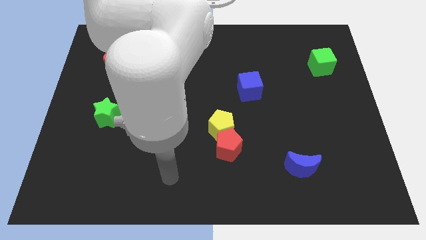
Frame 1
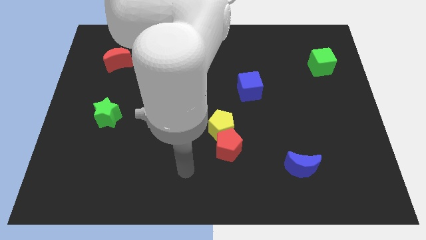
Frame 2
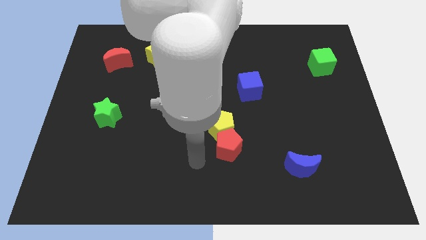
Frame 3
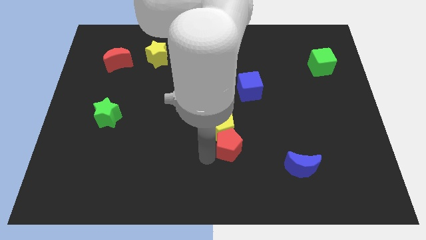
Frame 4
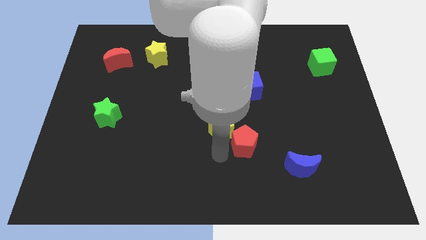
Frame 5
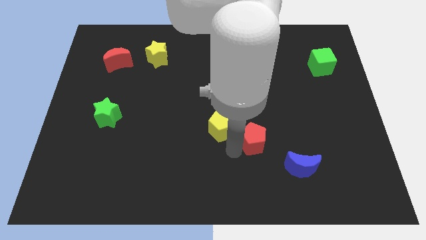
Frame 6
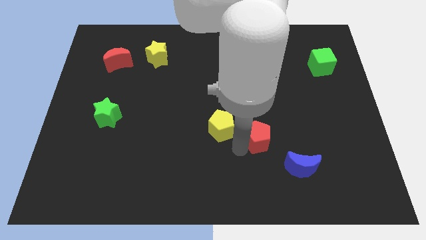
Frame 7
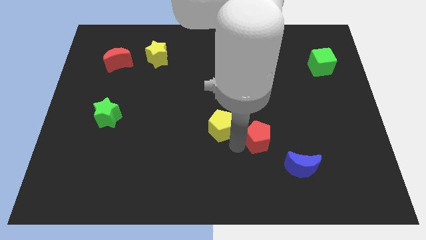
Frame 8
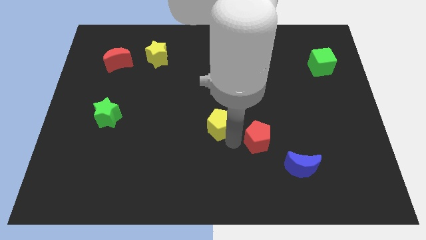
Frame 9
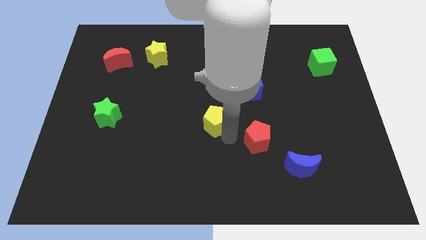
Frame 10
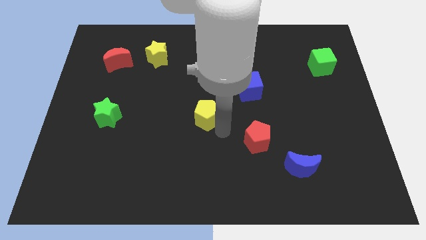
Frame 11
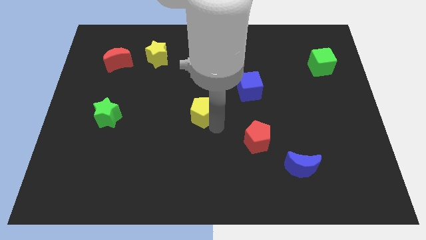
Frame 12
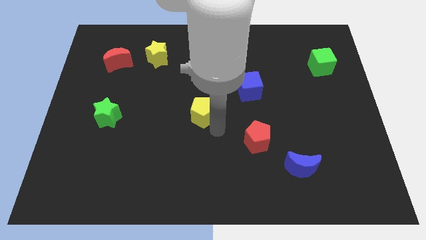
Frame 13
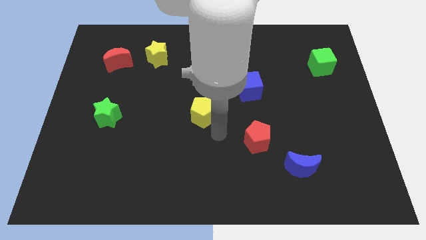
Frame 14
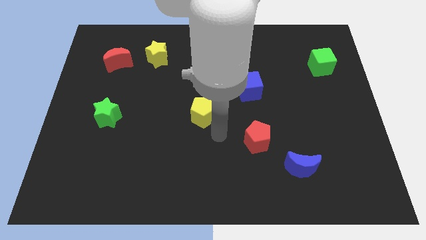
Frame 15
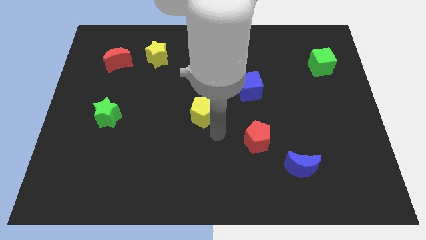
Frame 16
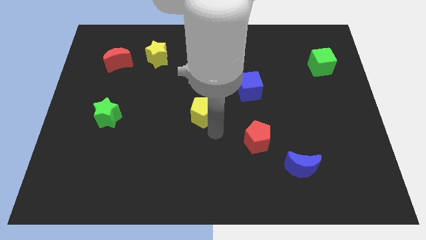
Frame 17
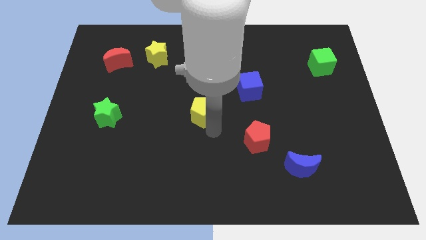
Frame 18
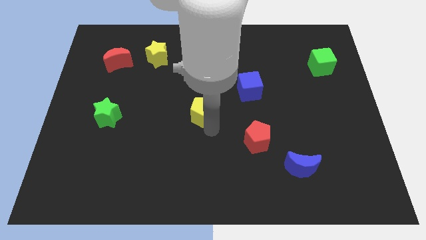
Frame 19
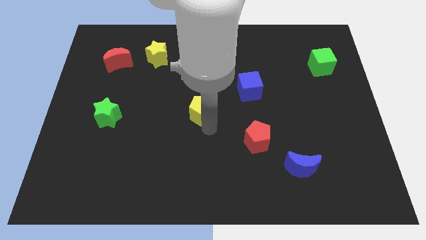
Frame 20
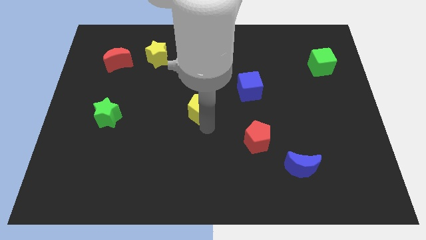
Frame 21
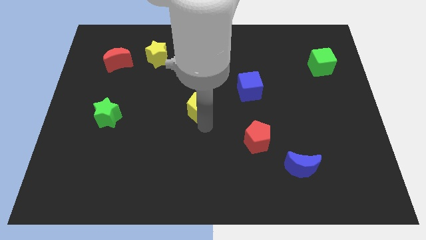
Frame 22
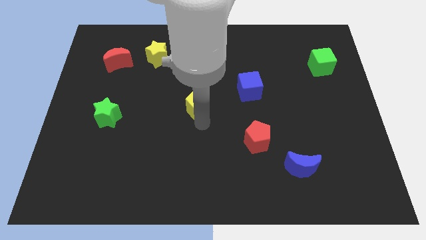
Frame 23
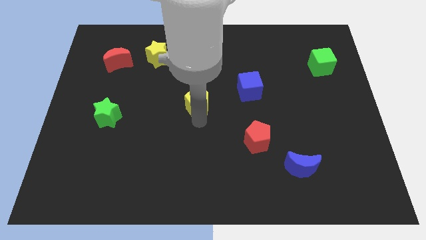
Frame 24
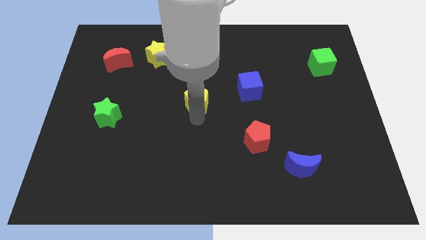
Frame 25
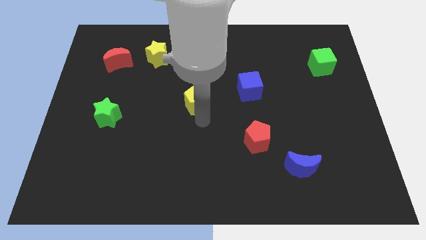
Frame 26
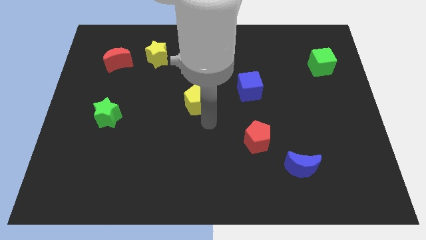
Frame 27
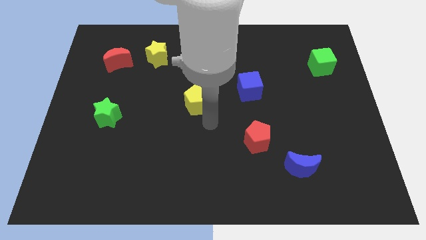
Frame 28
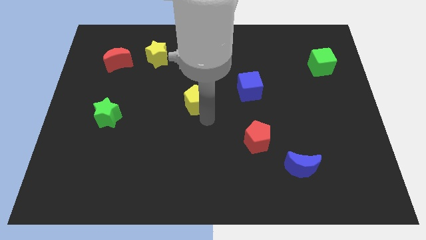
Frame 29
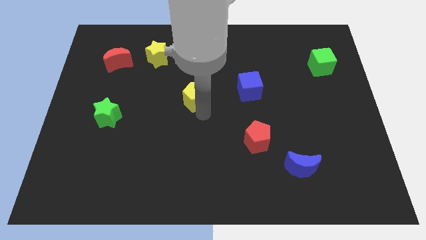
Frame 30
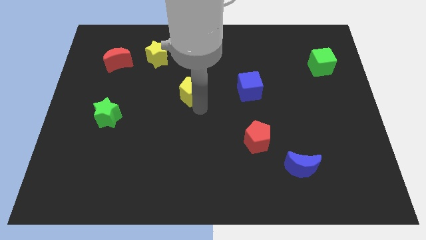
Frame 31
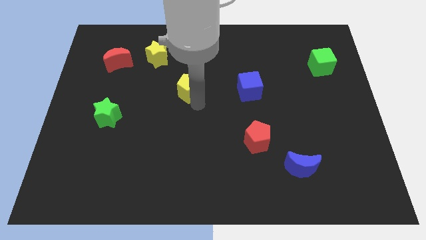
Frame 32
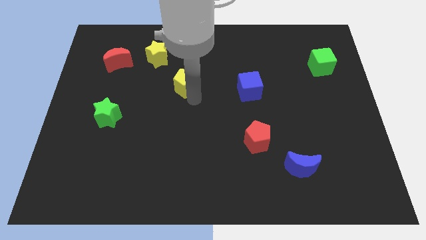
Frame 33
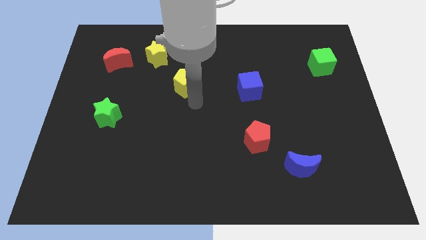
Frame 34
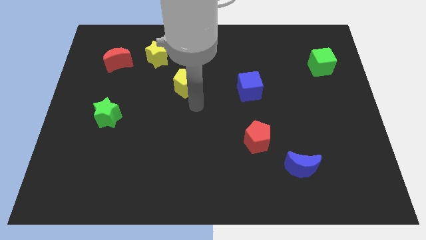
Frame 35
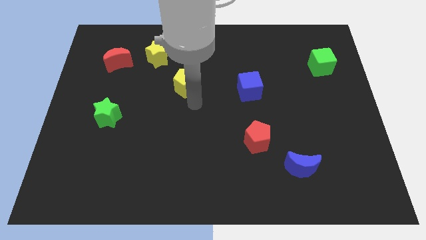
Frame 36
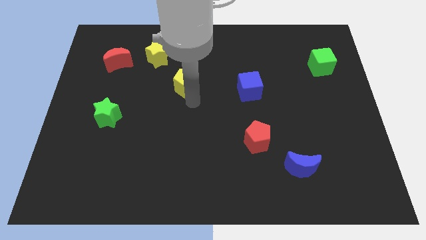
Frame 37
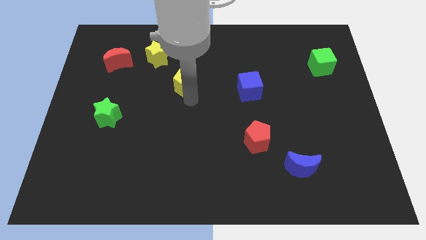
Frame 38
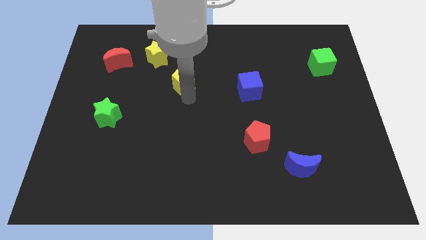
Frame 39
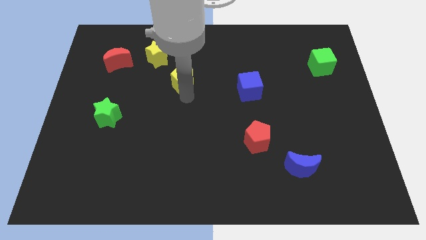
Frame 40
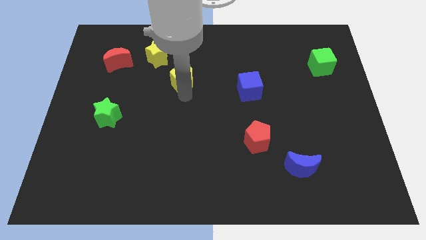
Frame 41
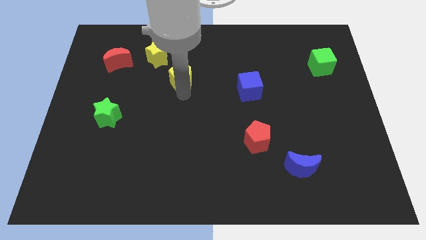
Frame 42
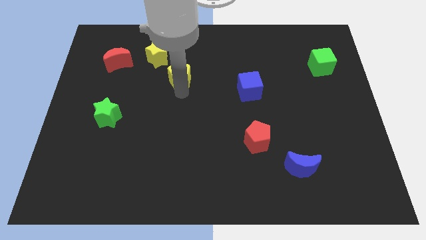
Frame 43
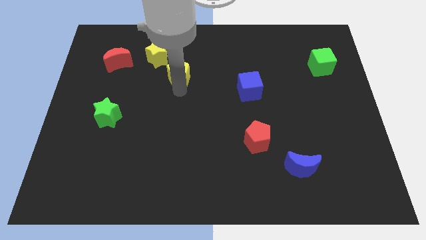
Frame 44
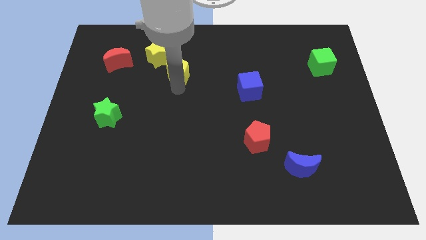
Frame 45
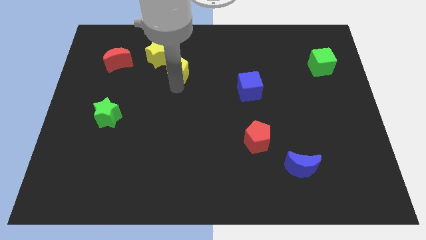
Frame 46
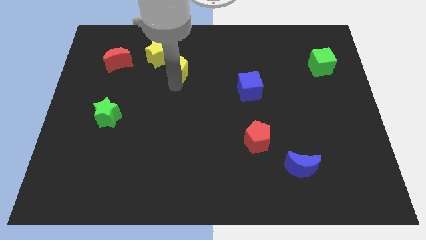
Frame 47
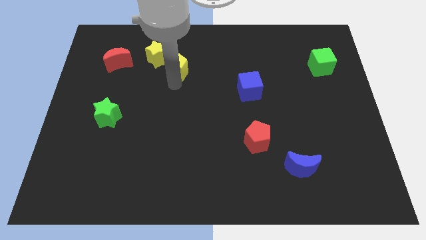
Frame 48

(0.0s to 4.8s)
put the yellow pentagon to the right of the red moon

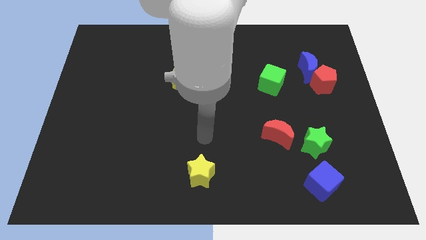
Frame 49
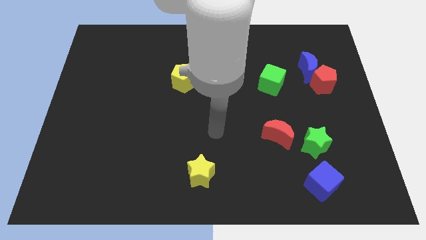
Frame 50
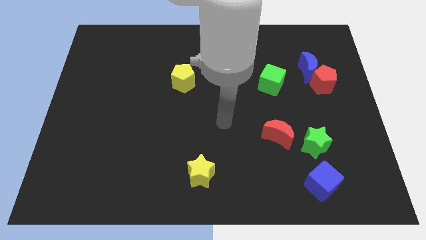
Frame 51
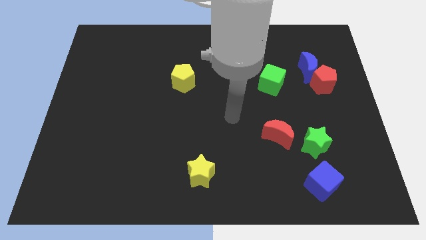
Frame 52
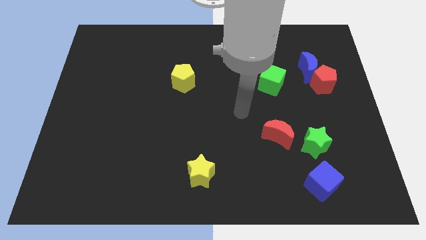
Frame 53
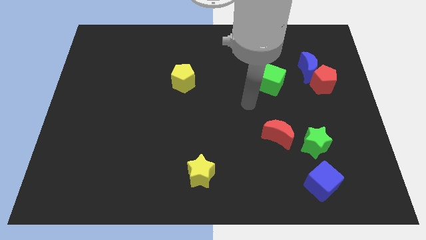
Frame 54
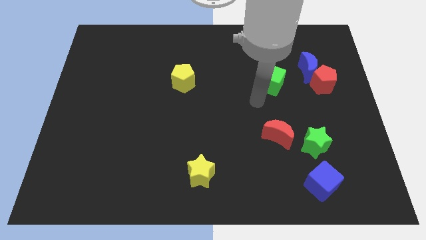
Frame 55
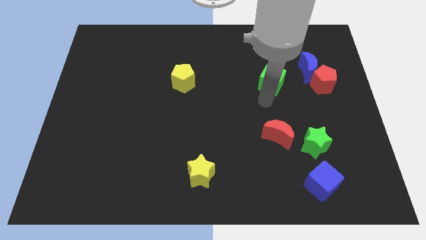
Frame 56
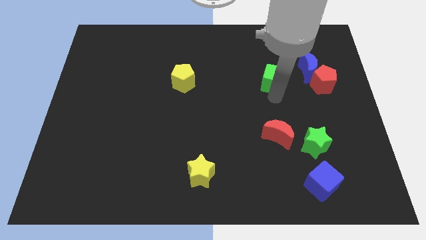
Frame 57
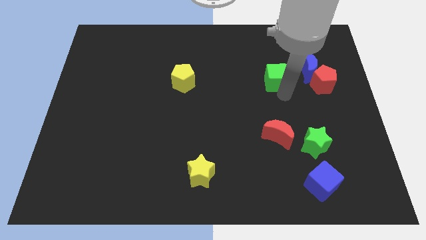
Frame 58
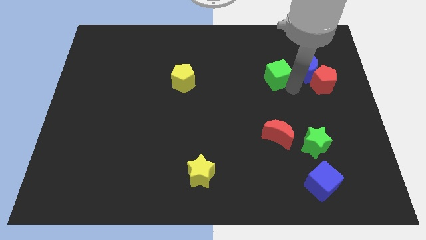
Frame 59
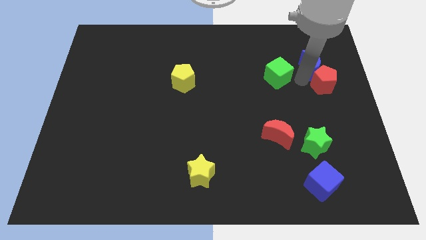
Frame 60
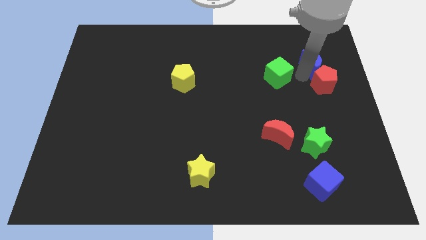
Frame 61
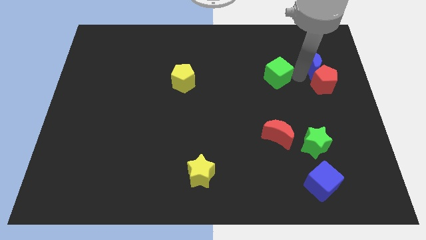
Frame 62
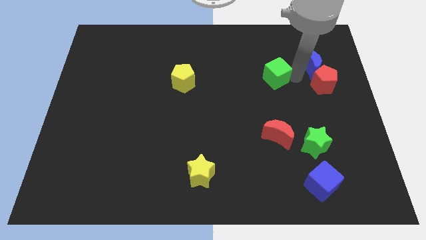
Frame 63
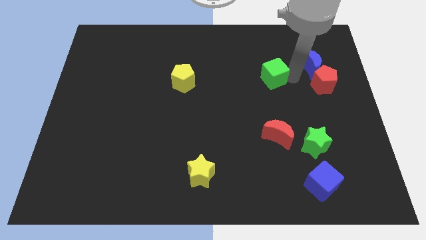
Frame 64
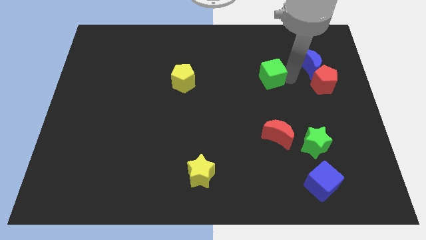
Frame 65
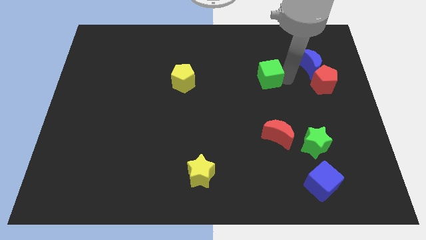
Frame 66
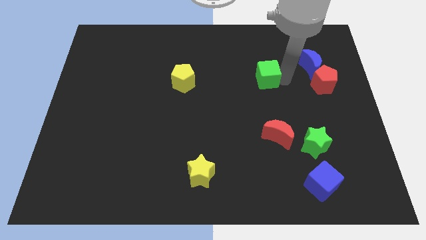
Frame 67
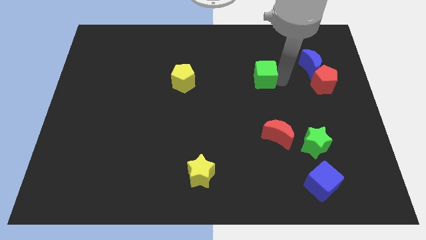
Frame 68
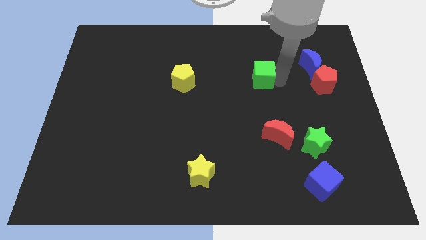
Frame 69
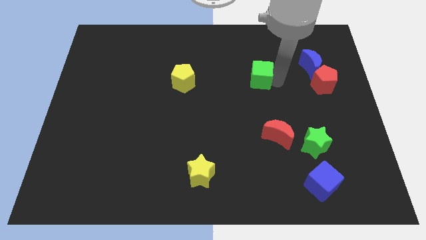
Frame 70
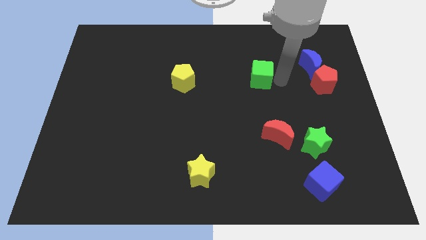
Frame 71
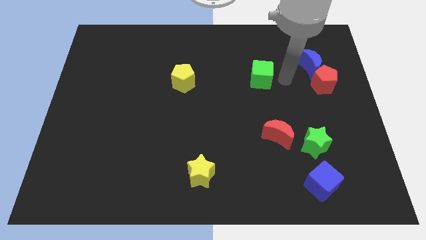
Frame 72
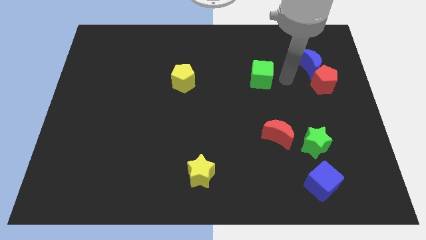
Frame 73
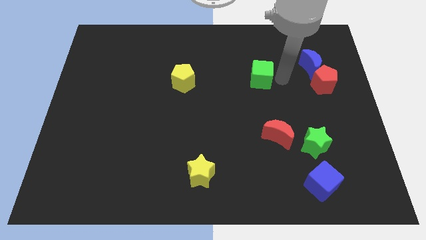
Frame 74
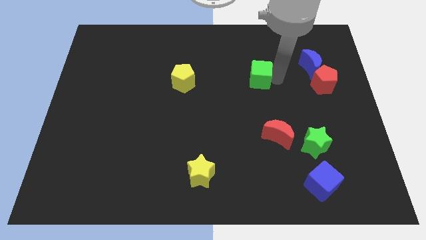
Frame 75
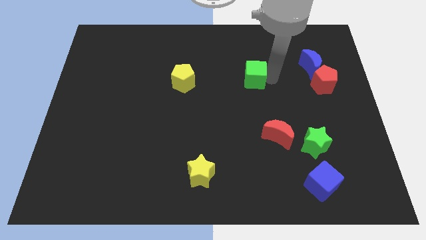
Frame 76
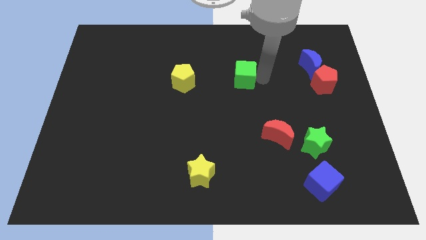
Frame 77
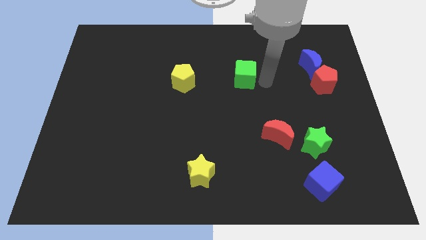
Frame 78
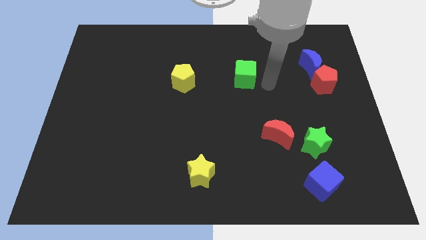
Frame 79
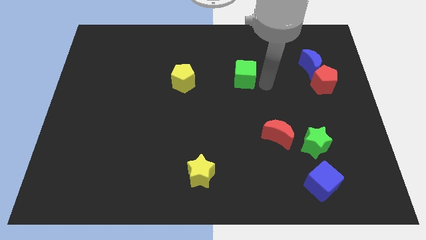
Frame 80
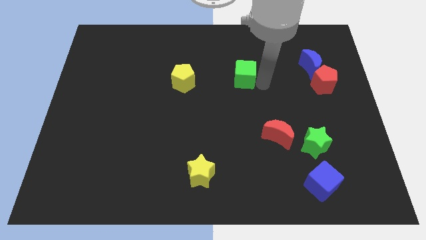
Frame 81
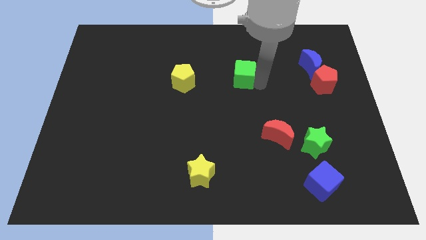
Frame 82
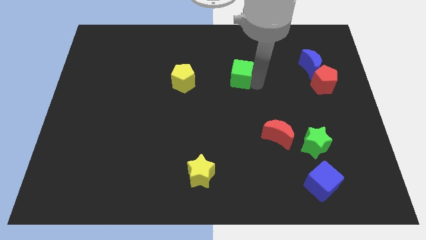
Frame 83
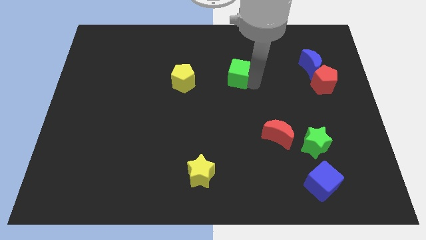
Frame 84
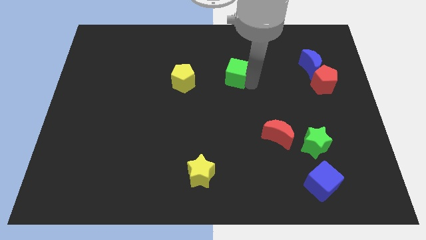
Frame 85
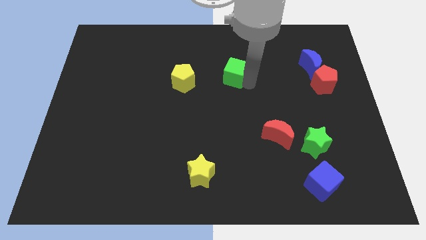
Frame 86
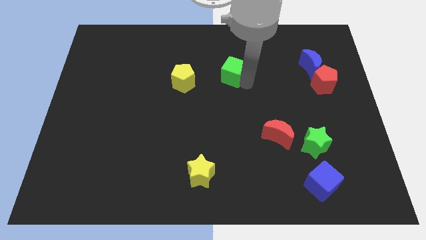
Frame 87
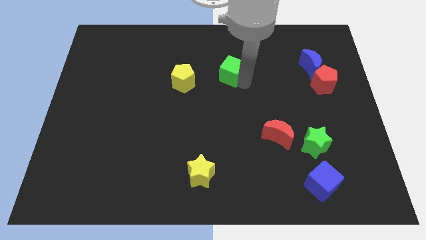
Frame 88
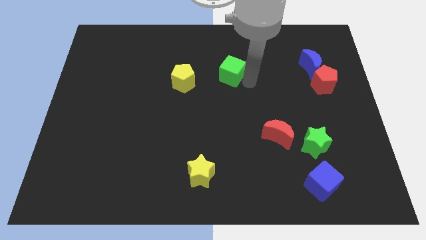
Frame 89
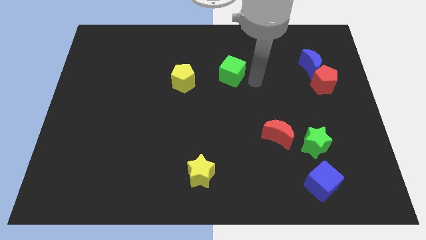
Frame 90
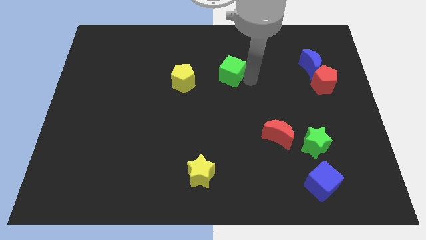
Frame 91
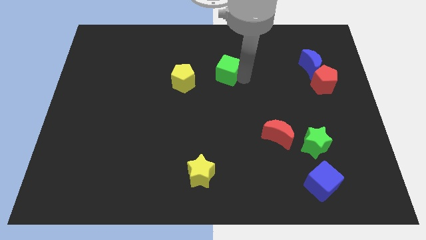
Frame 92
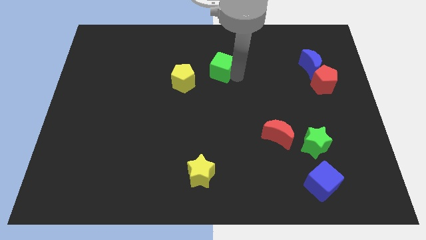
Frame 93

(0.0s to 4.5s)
move the green cube diagonally up and to the right of the yellow pentagon
